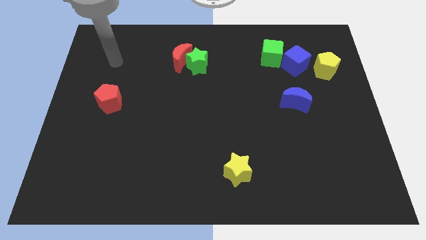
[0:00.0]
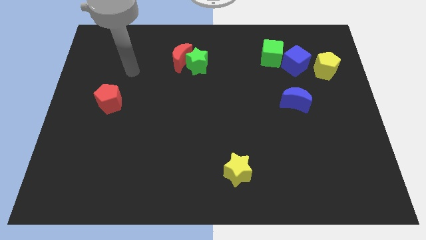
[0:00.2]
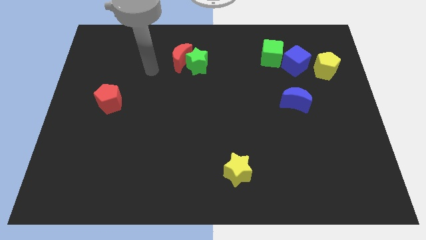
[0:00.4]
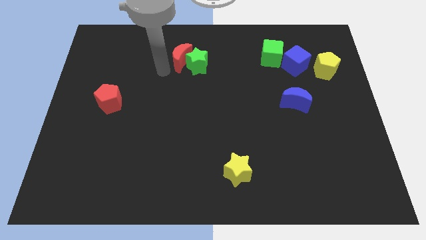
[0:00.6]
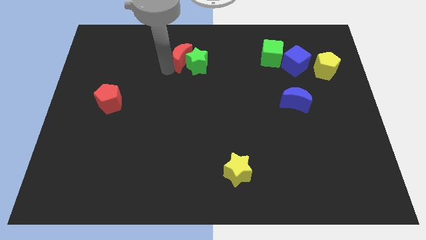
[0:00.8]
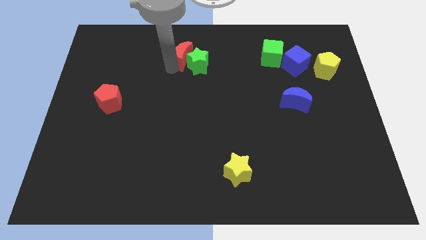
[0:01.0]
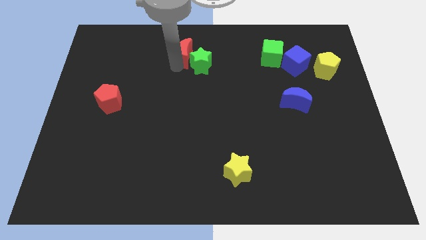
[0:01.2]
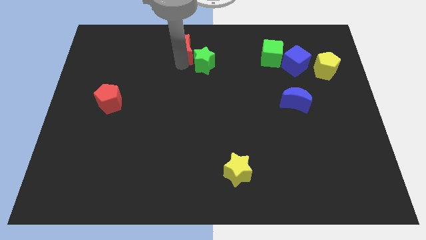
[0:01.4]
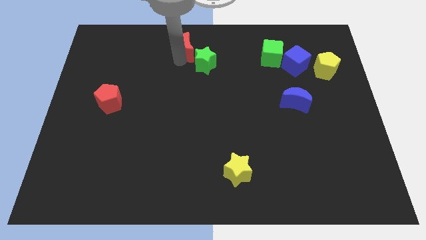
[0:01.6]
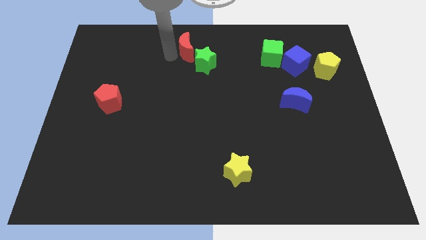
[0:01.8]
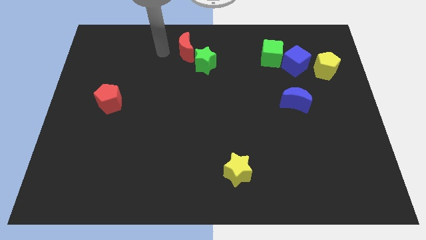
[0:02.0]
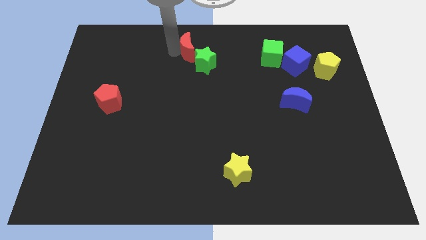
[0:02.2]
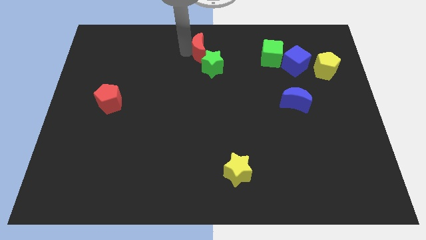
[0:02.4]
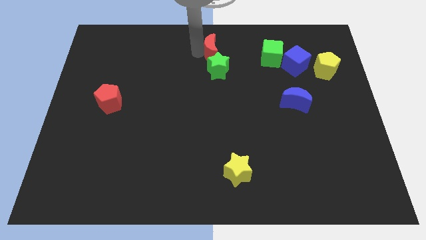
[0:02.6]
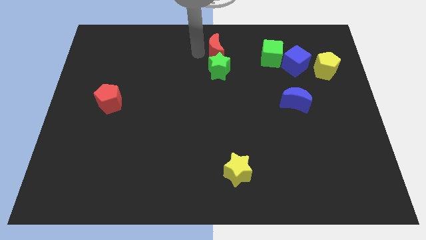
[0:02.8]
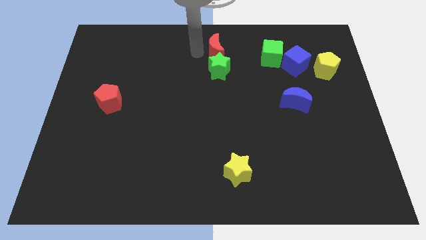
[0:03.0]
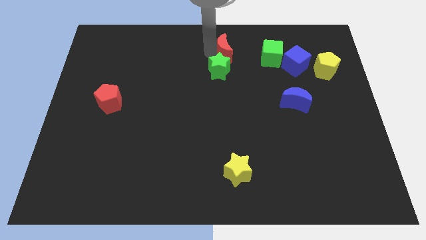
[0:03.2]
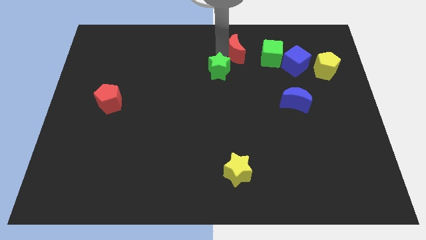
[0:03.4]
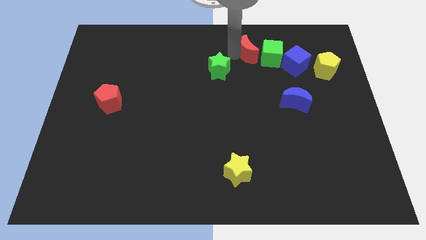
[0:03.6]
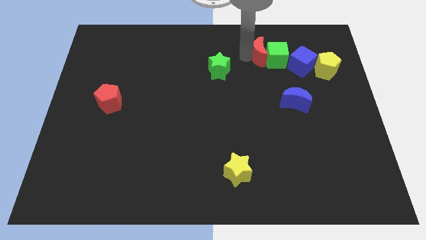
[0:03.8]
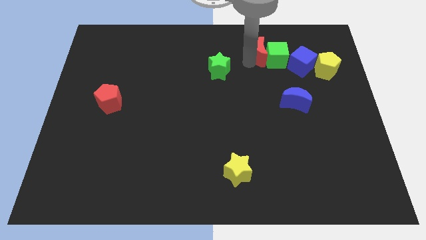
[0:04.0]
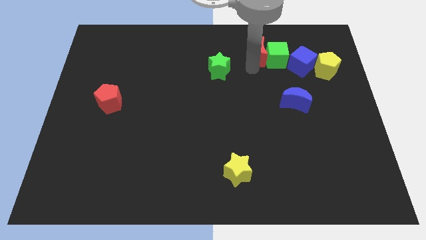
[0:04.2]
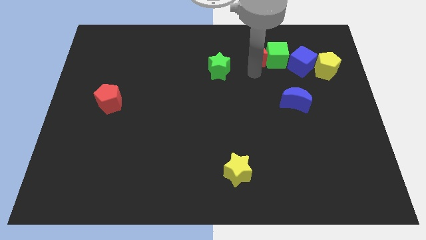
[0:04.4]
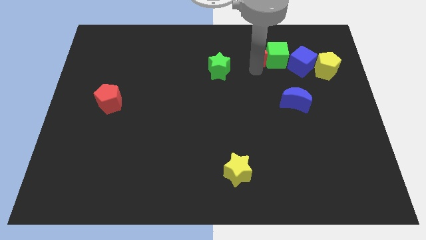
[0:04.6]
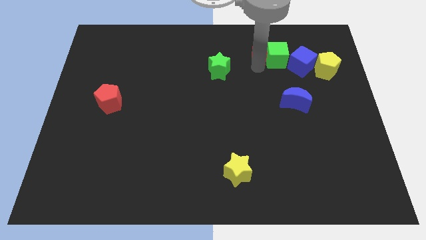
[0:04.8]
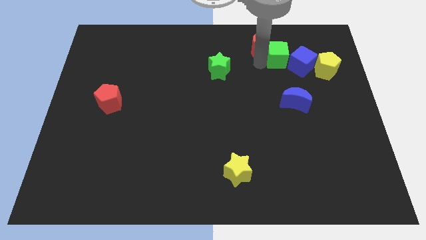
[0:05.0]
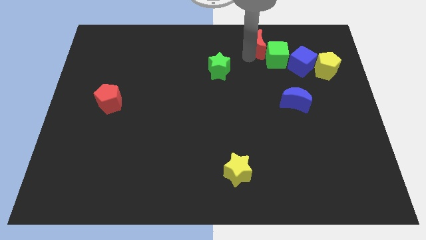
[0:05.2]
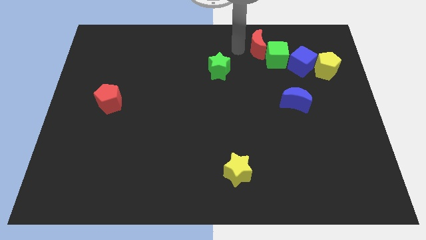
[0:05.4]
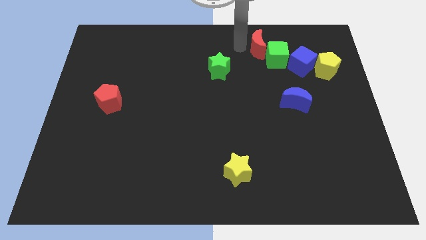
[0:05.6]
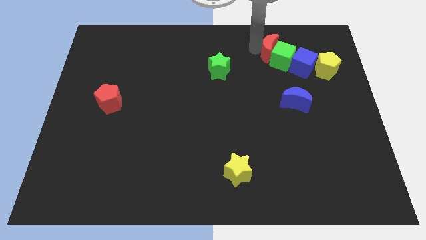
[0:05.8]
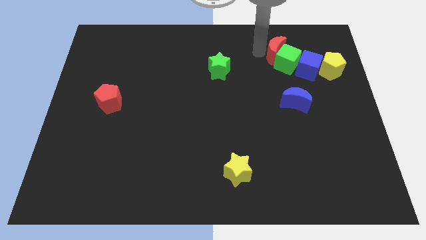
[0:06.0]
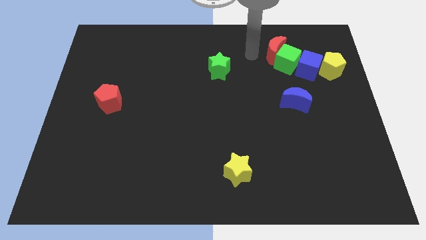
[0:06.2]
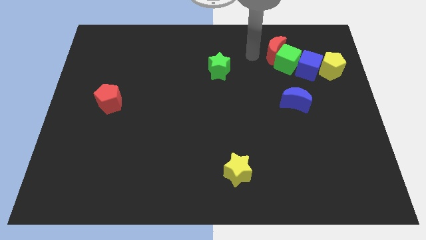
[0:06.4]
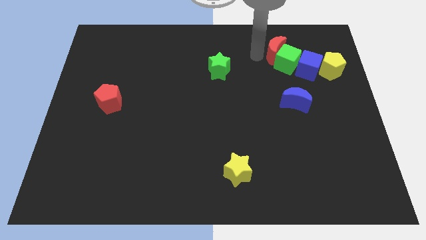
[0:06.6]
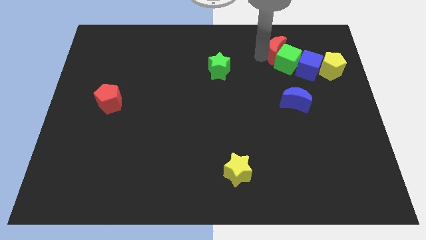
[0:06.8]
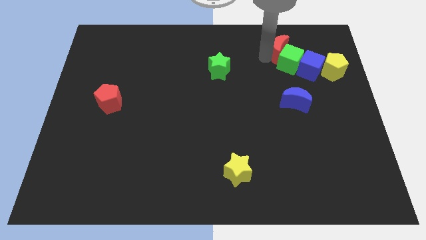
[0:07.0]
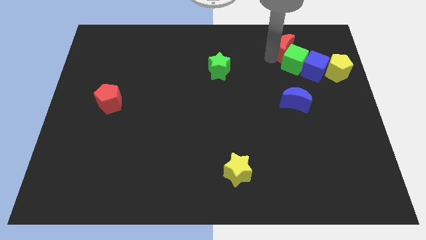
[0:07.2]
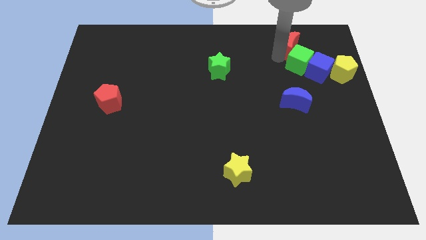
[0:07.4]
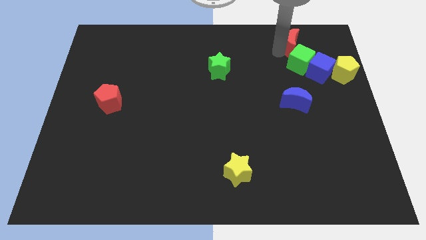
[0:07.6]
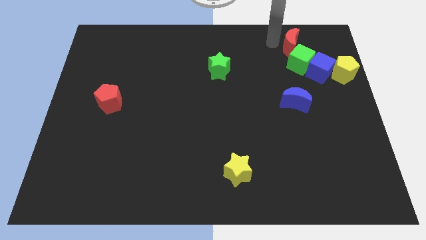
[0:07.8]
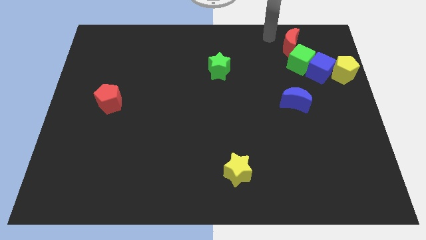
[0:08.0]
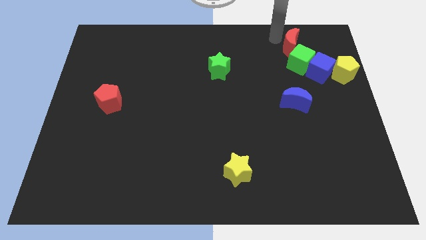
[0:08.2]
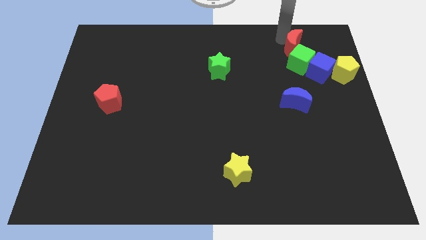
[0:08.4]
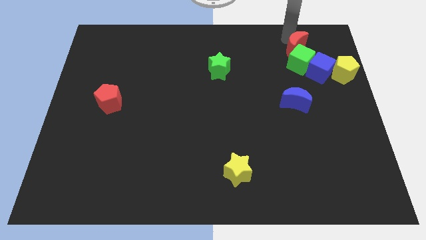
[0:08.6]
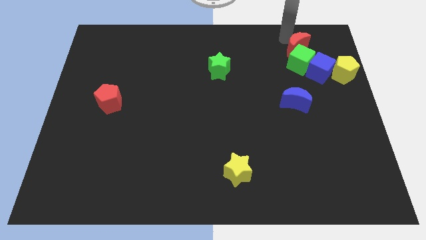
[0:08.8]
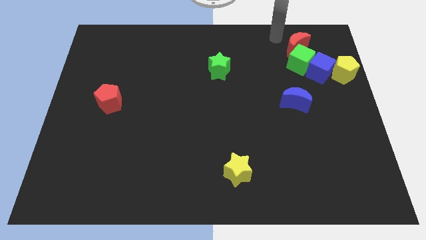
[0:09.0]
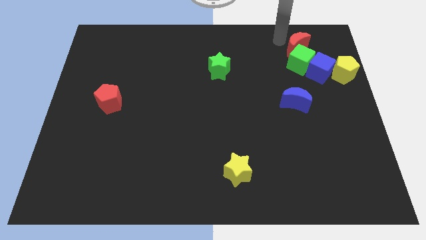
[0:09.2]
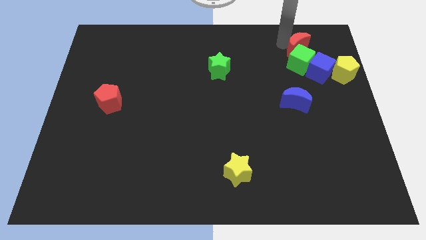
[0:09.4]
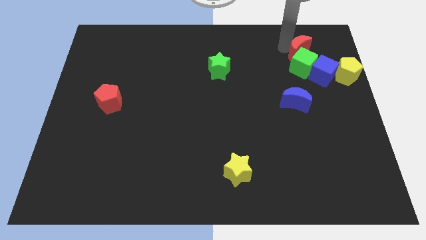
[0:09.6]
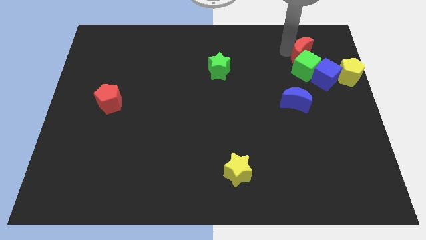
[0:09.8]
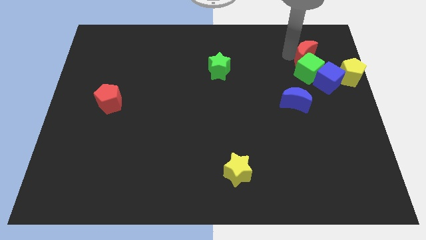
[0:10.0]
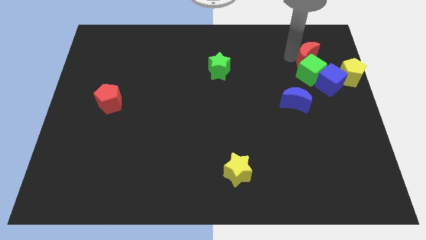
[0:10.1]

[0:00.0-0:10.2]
push the red moon to the top left side of the yellow pentagon

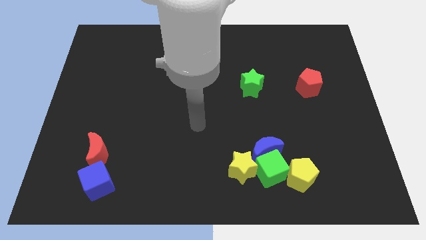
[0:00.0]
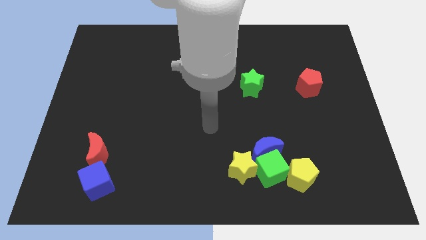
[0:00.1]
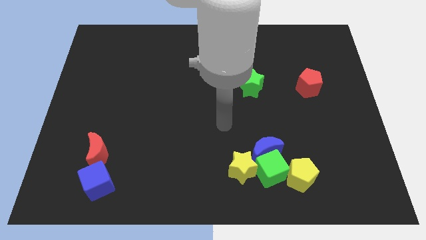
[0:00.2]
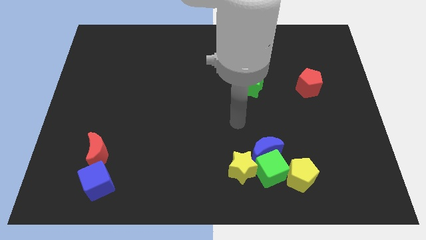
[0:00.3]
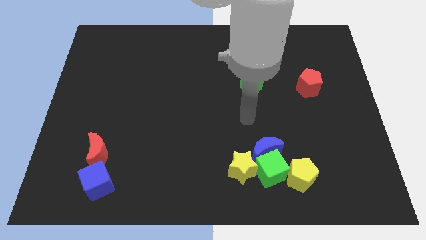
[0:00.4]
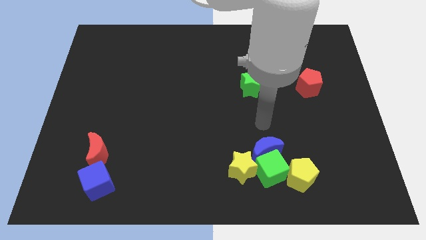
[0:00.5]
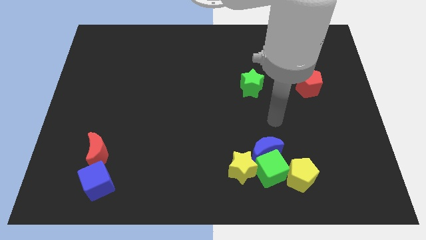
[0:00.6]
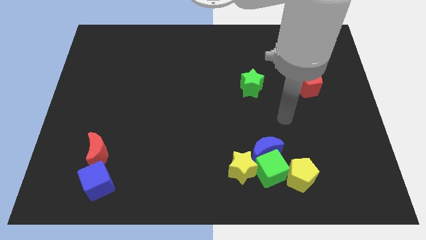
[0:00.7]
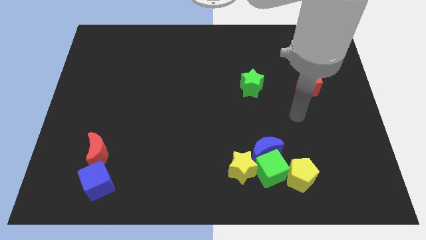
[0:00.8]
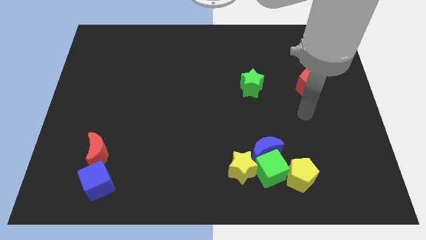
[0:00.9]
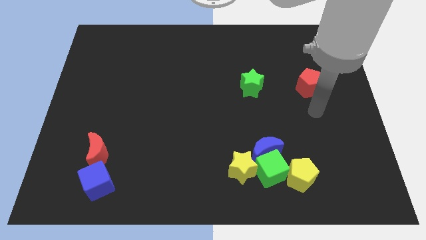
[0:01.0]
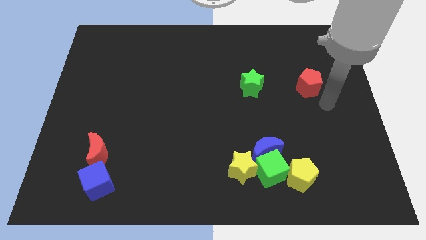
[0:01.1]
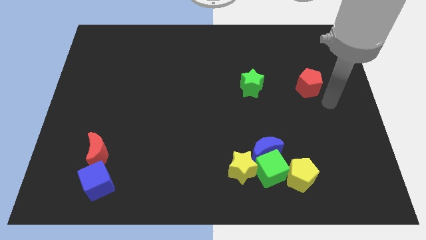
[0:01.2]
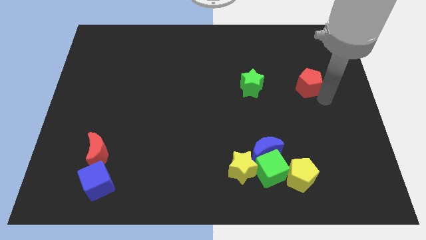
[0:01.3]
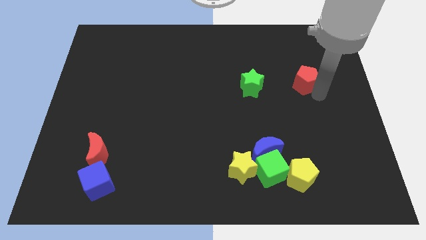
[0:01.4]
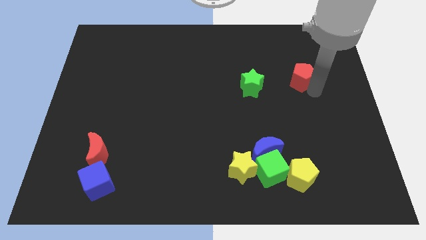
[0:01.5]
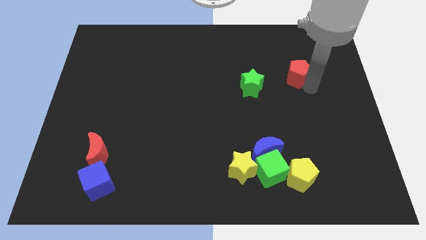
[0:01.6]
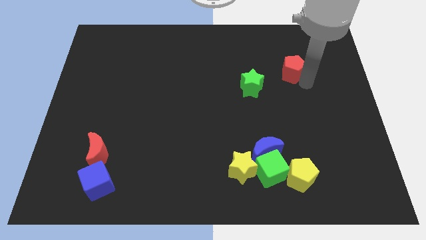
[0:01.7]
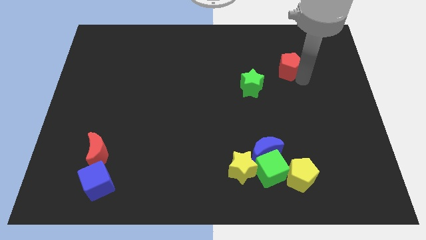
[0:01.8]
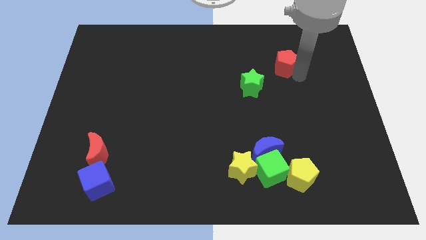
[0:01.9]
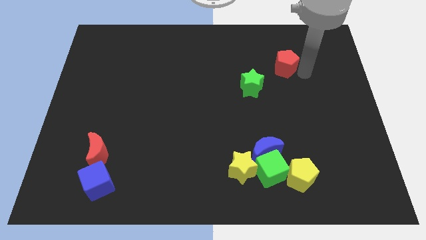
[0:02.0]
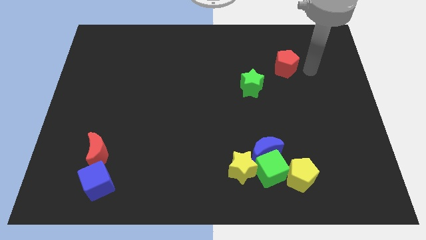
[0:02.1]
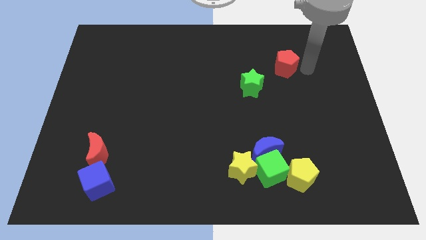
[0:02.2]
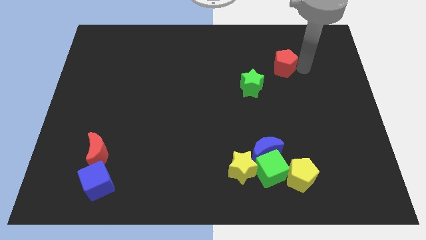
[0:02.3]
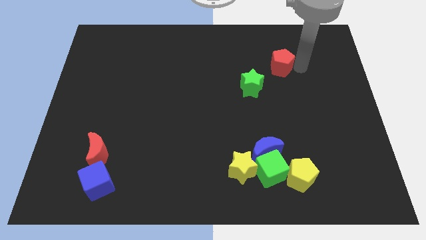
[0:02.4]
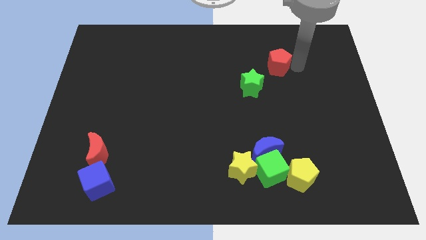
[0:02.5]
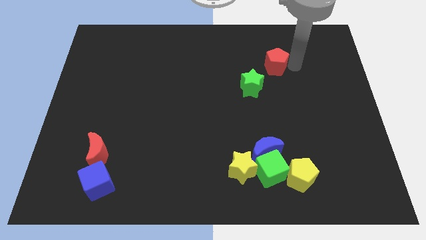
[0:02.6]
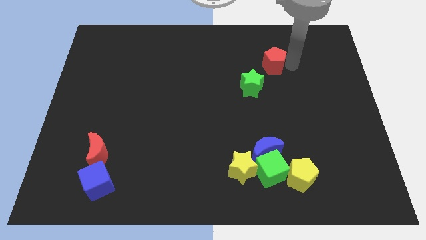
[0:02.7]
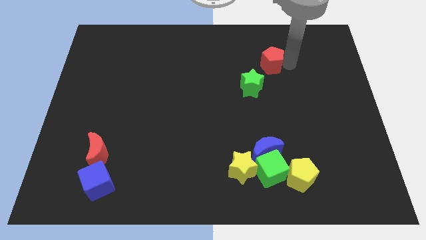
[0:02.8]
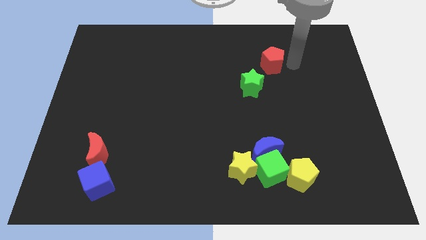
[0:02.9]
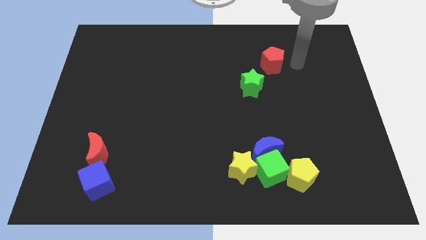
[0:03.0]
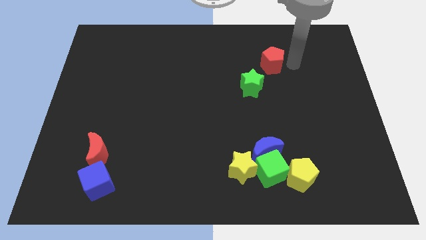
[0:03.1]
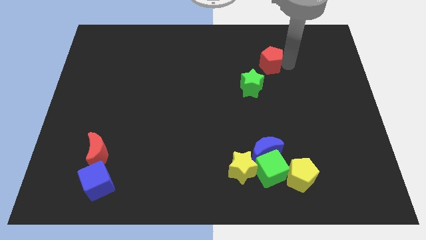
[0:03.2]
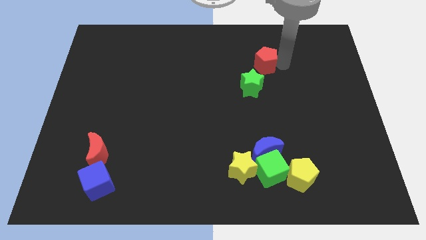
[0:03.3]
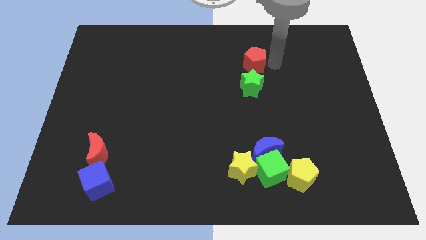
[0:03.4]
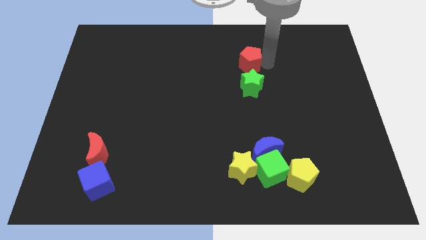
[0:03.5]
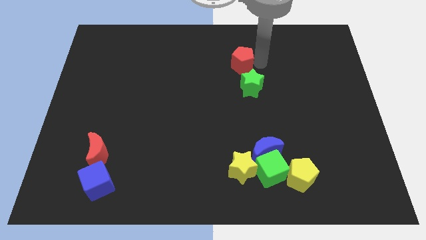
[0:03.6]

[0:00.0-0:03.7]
put the red pentagon diagonally up and to the left of the green star
